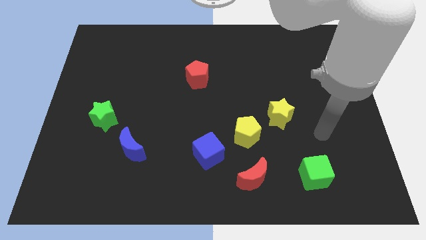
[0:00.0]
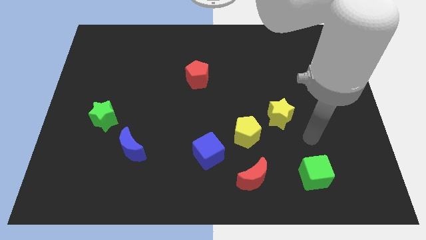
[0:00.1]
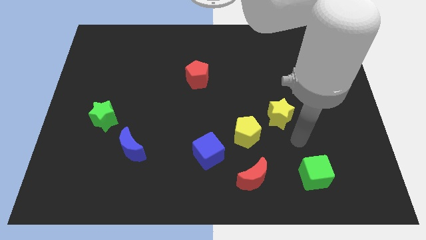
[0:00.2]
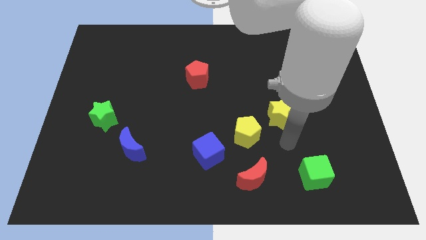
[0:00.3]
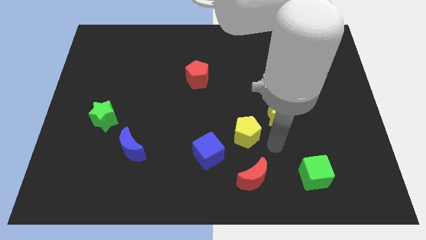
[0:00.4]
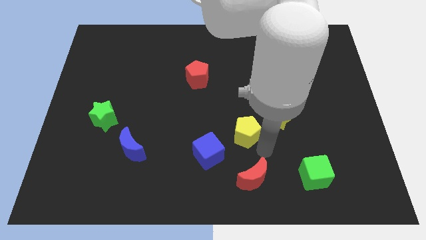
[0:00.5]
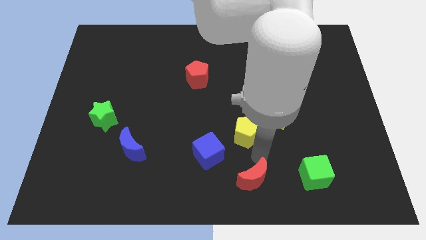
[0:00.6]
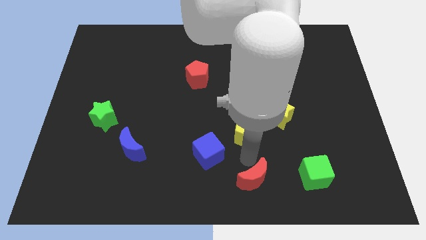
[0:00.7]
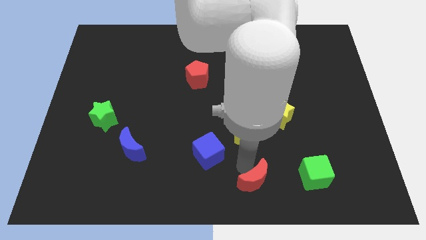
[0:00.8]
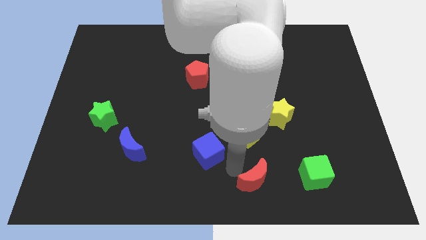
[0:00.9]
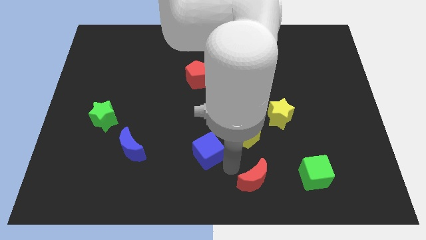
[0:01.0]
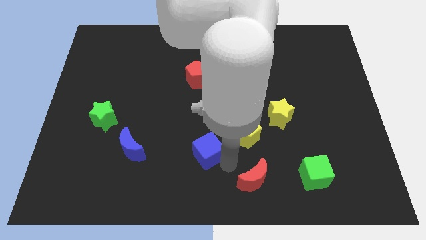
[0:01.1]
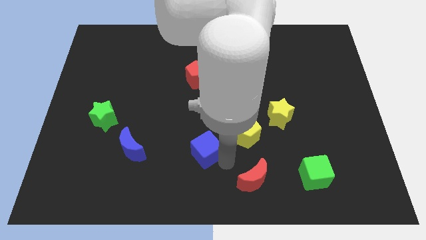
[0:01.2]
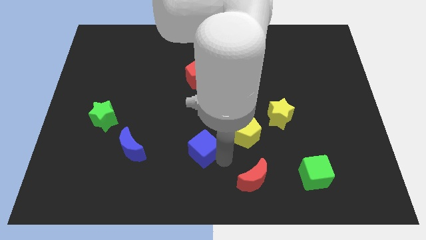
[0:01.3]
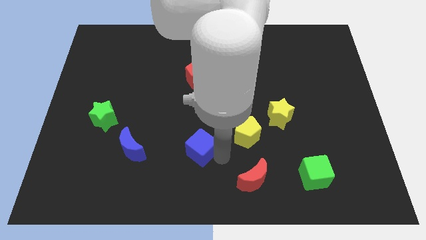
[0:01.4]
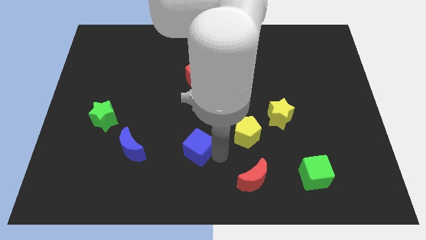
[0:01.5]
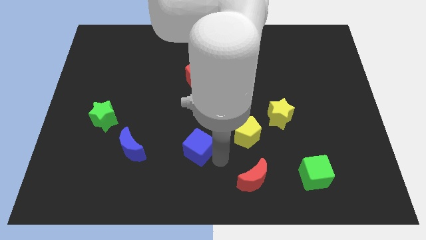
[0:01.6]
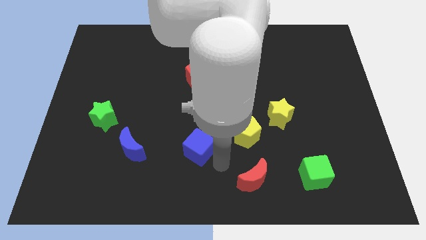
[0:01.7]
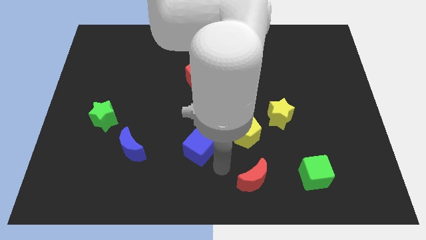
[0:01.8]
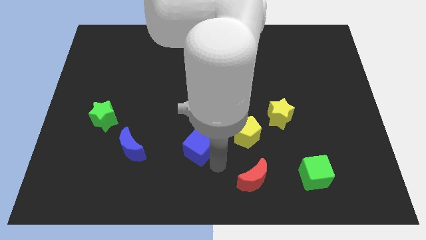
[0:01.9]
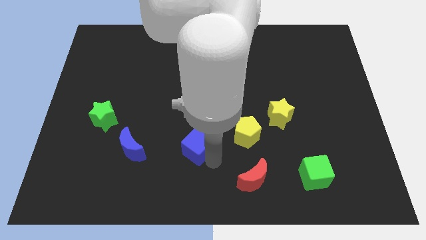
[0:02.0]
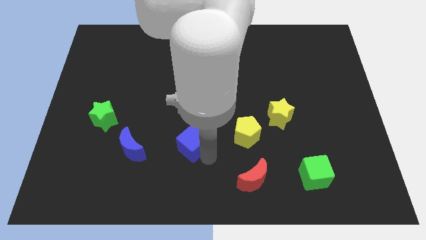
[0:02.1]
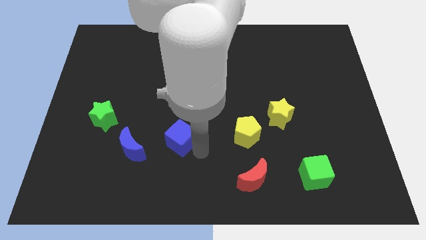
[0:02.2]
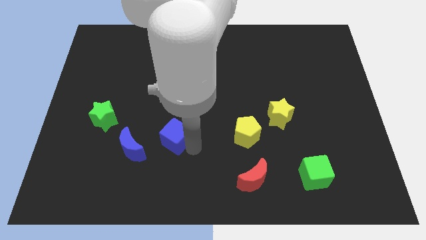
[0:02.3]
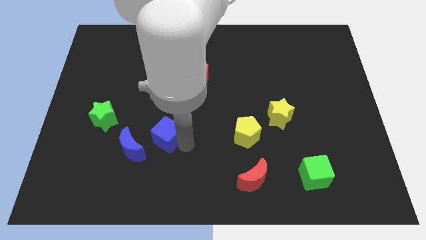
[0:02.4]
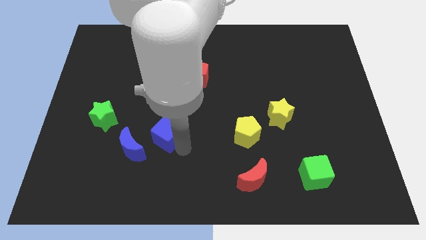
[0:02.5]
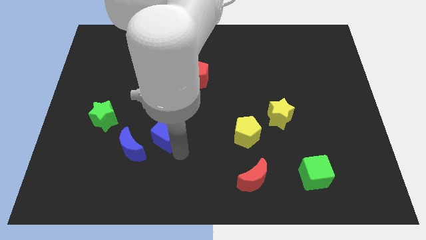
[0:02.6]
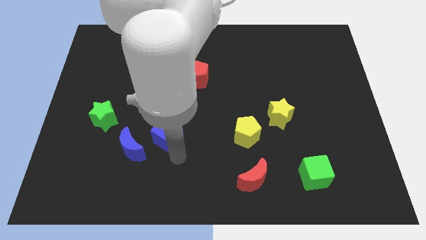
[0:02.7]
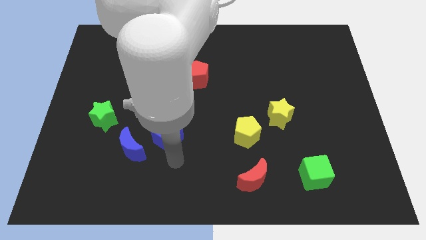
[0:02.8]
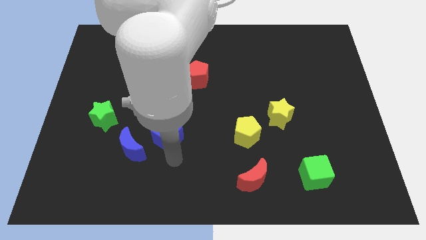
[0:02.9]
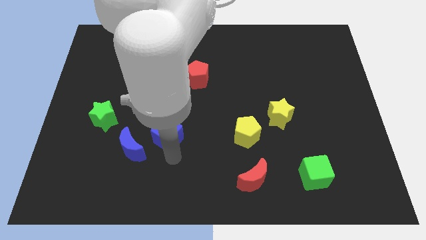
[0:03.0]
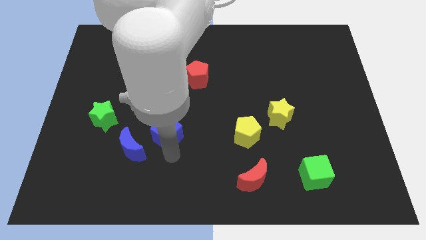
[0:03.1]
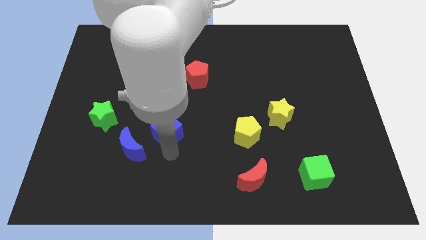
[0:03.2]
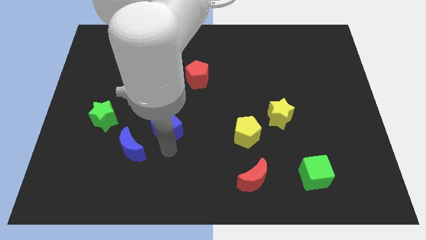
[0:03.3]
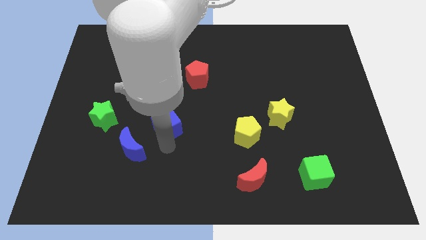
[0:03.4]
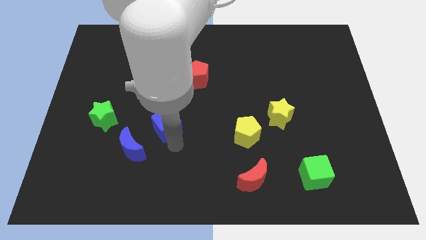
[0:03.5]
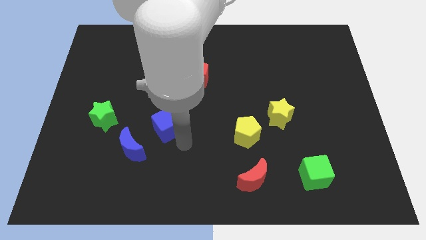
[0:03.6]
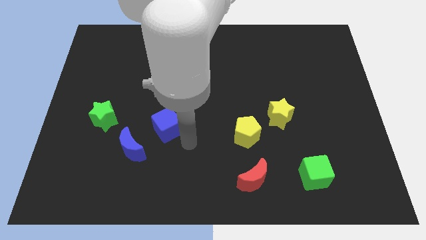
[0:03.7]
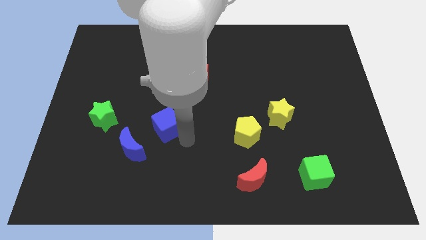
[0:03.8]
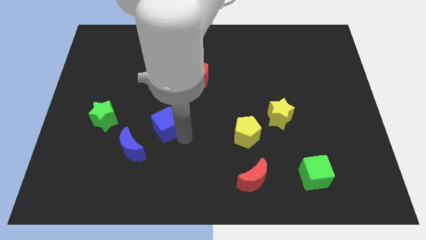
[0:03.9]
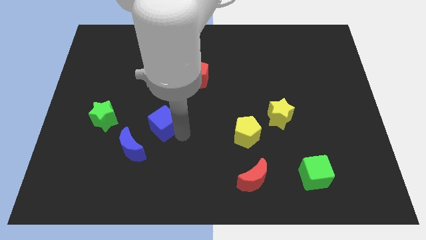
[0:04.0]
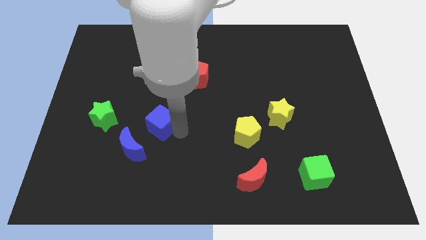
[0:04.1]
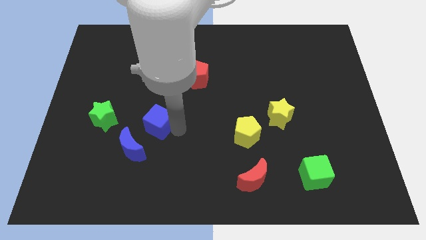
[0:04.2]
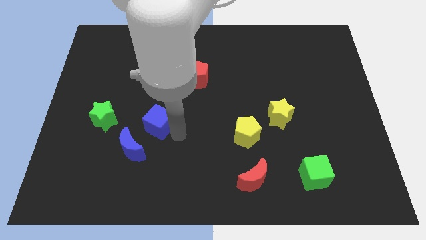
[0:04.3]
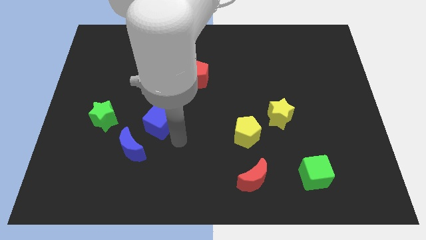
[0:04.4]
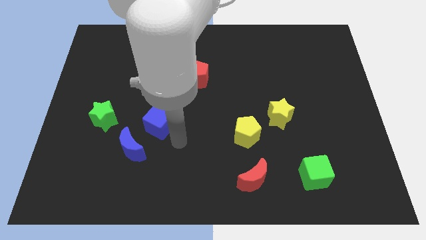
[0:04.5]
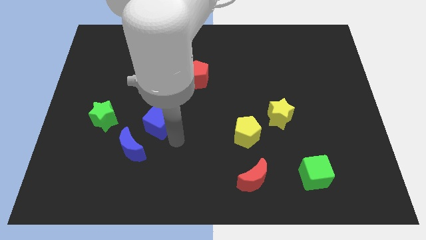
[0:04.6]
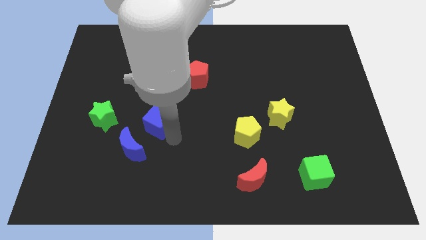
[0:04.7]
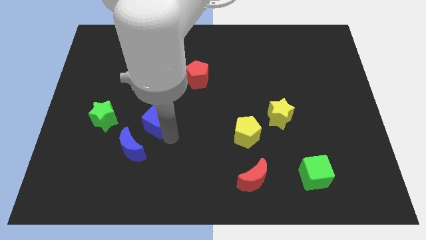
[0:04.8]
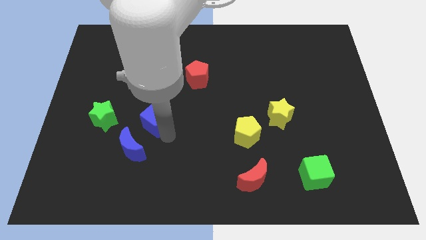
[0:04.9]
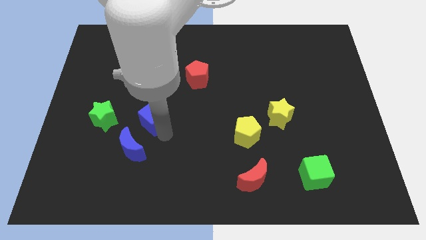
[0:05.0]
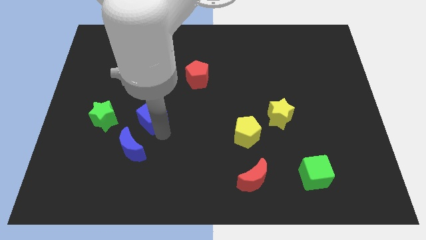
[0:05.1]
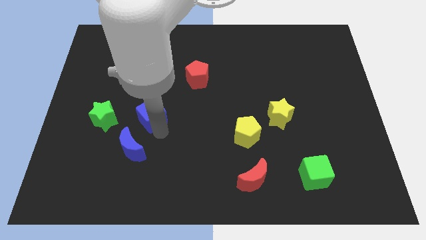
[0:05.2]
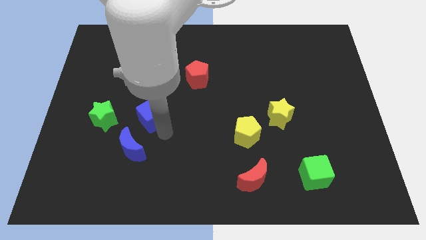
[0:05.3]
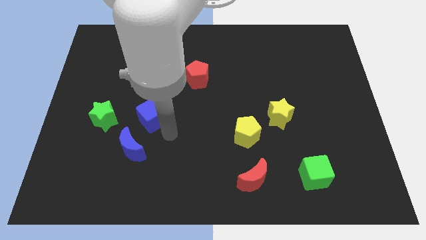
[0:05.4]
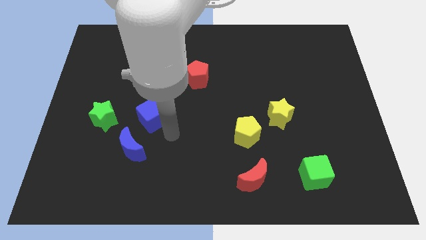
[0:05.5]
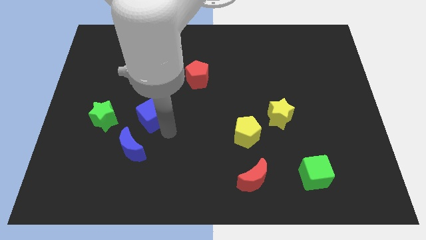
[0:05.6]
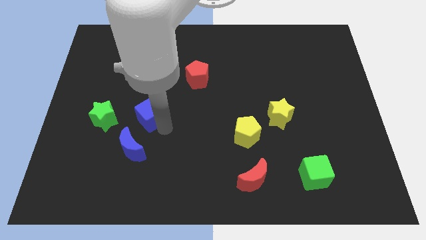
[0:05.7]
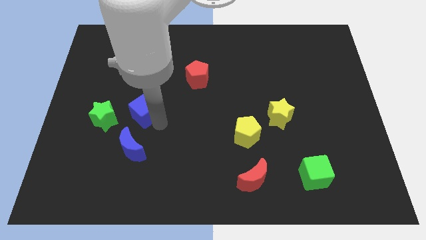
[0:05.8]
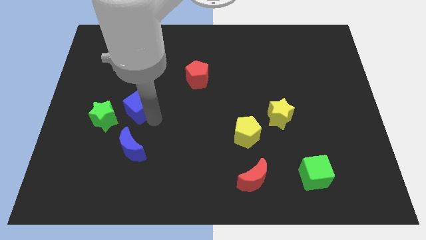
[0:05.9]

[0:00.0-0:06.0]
move the blue cube diagonally up and to the right of the green star

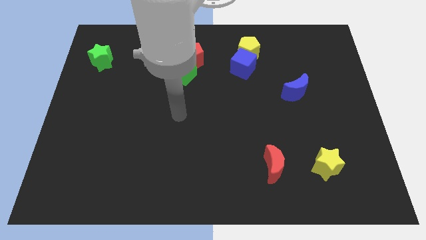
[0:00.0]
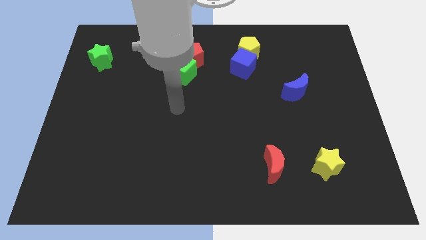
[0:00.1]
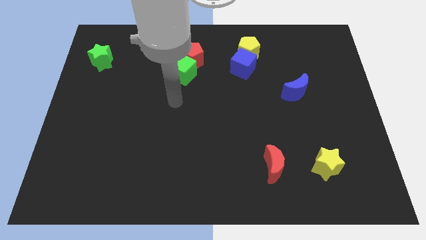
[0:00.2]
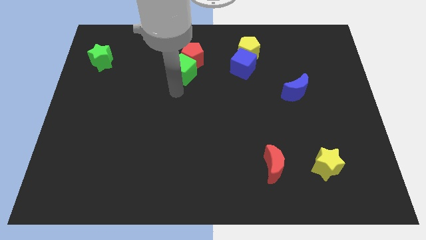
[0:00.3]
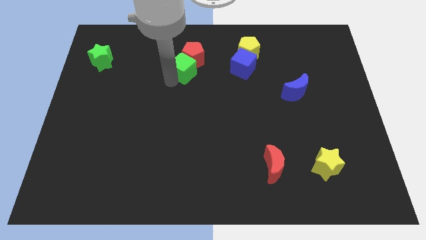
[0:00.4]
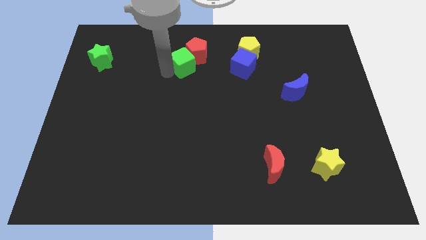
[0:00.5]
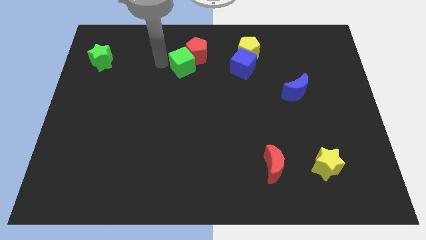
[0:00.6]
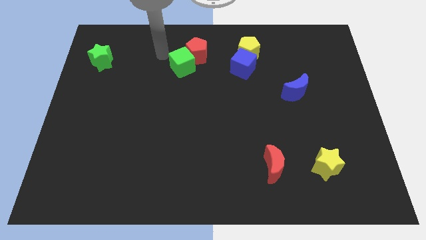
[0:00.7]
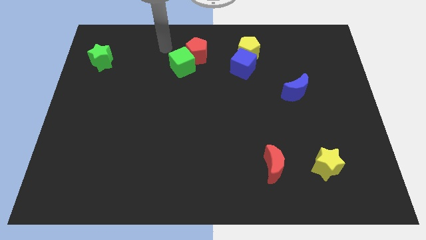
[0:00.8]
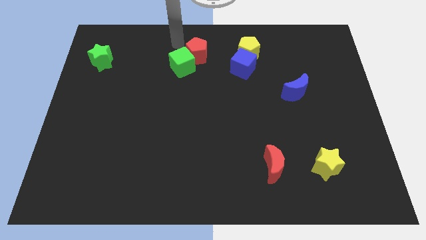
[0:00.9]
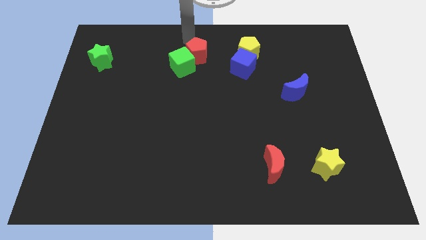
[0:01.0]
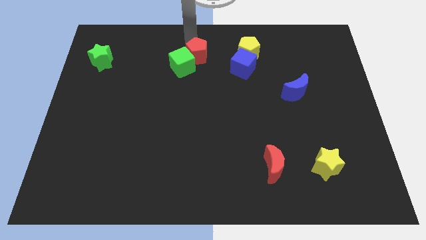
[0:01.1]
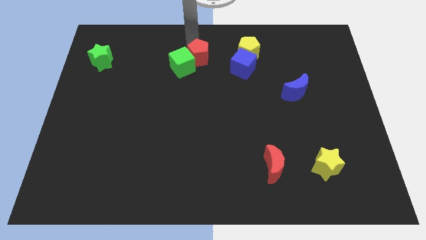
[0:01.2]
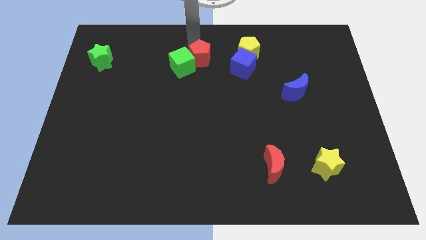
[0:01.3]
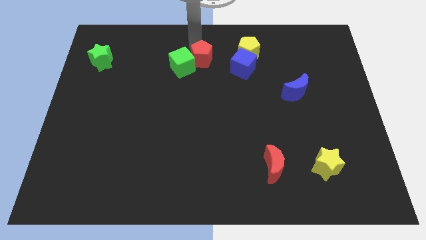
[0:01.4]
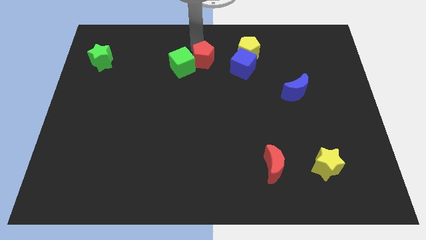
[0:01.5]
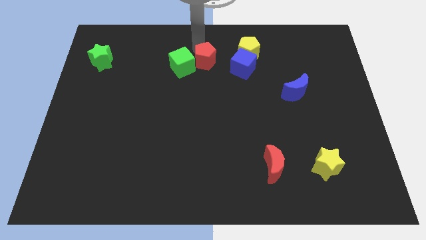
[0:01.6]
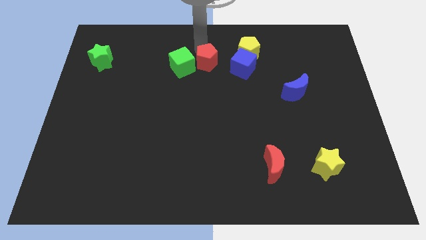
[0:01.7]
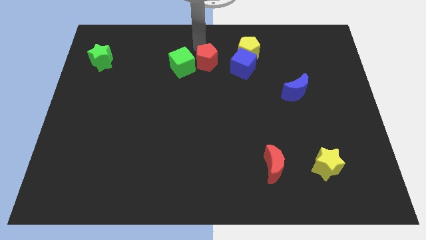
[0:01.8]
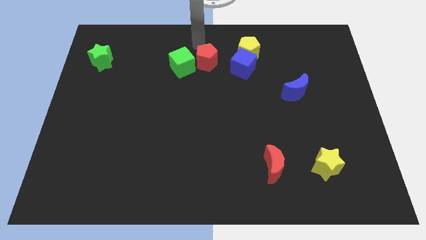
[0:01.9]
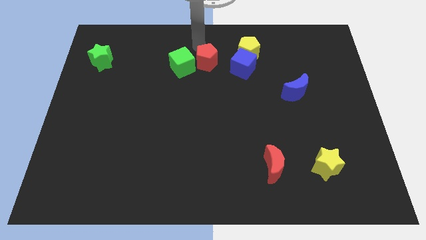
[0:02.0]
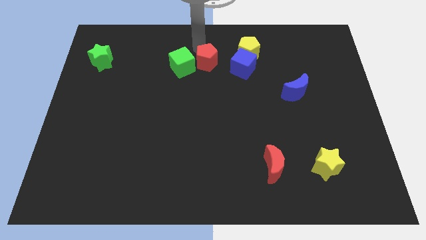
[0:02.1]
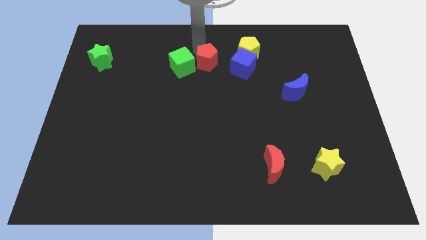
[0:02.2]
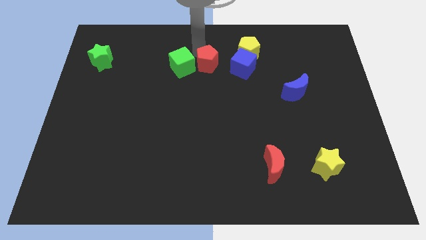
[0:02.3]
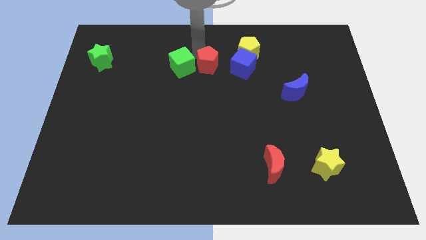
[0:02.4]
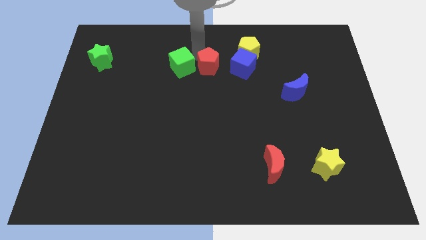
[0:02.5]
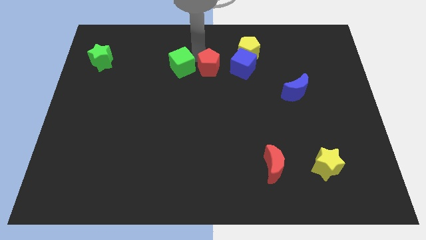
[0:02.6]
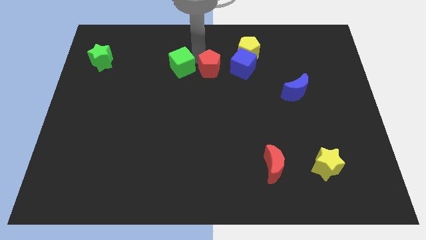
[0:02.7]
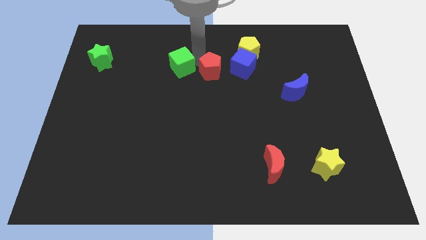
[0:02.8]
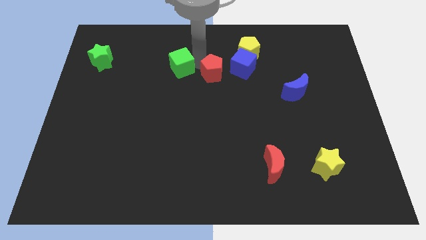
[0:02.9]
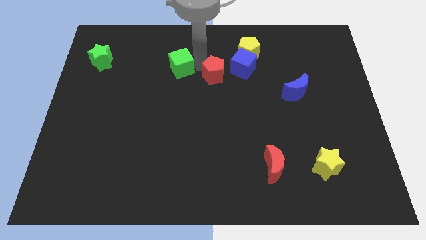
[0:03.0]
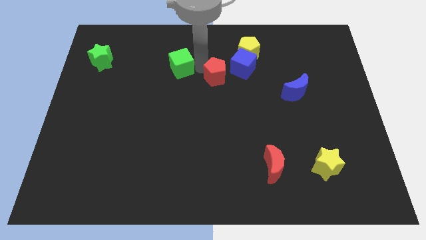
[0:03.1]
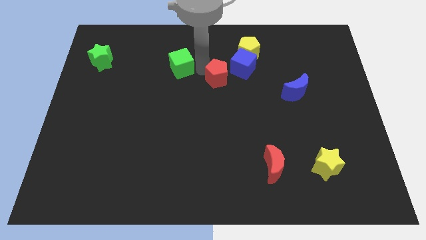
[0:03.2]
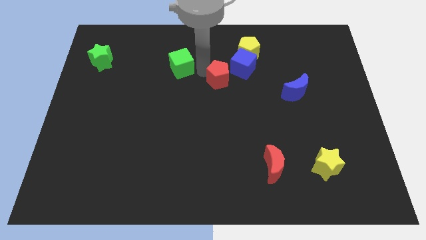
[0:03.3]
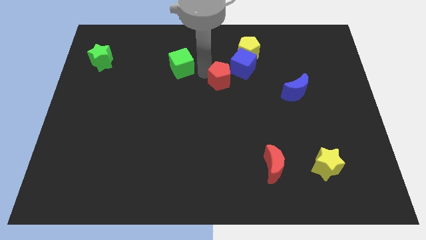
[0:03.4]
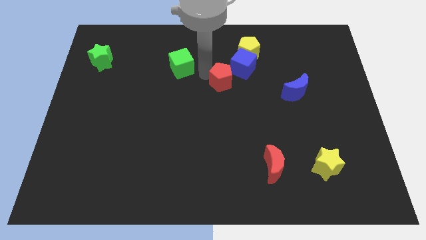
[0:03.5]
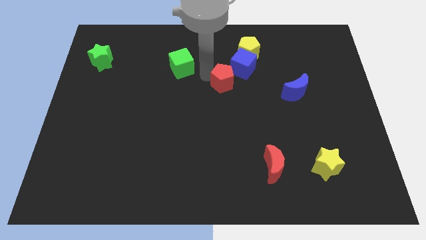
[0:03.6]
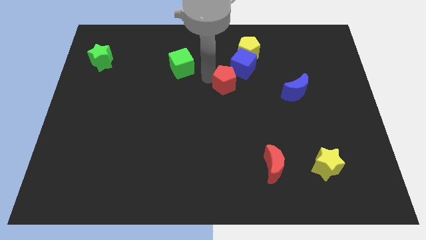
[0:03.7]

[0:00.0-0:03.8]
move the red pentagon below the blue cube
